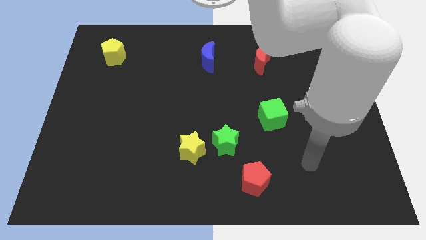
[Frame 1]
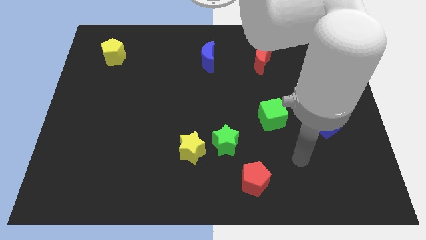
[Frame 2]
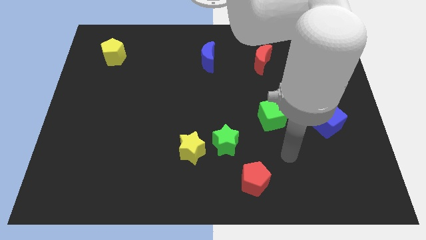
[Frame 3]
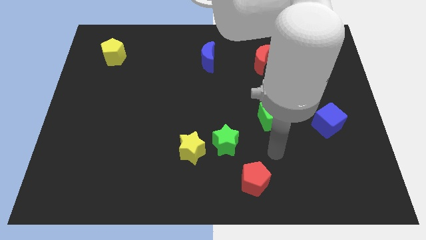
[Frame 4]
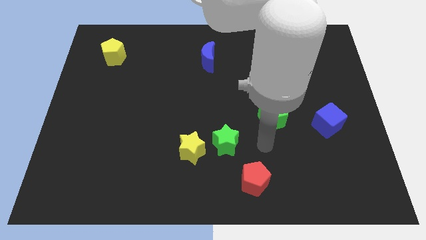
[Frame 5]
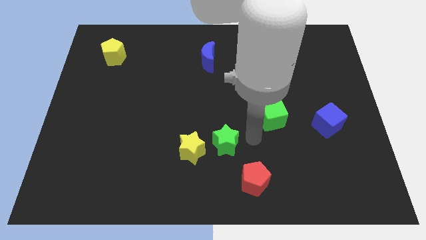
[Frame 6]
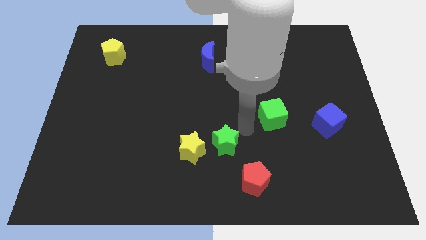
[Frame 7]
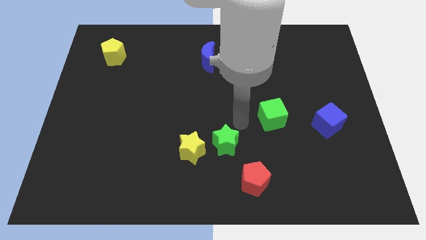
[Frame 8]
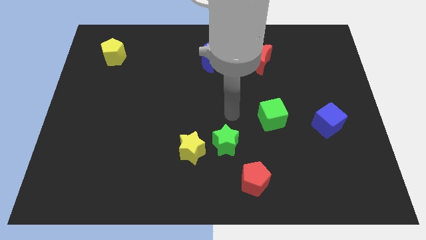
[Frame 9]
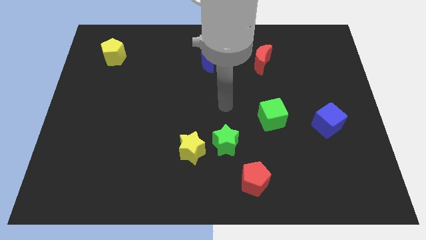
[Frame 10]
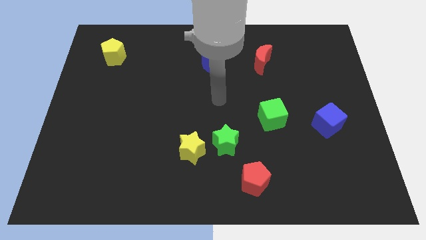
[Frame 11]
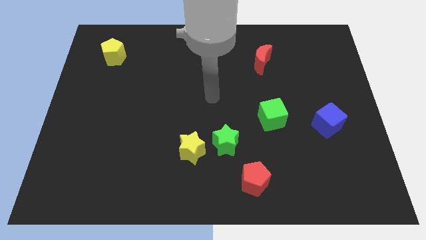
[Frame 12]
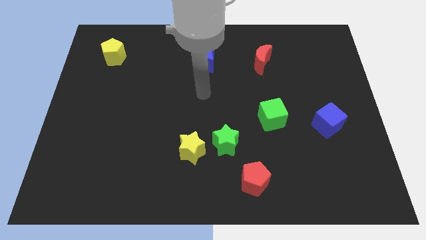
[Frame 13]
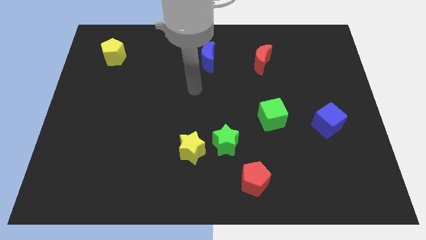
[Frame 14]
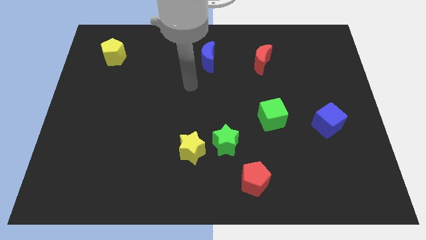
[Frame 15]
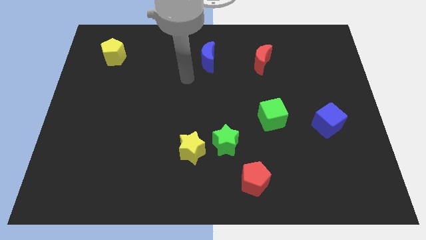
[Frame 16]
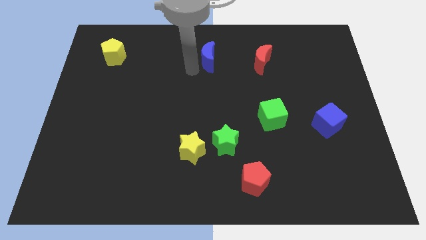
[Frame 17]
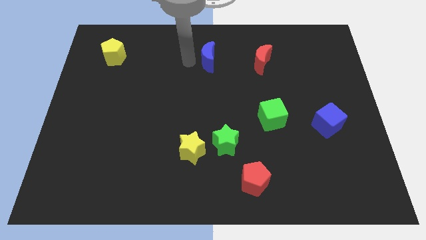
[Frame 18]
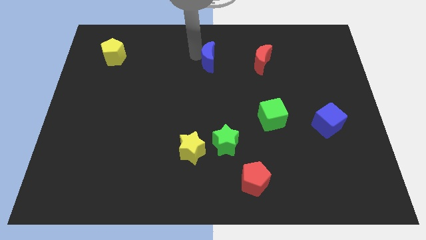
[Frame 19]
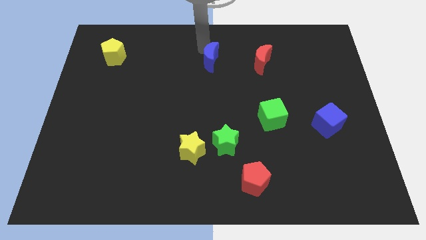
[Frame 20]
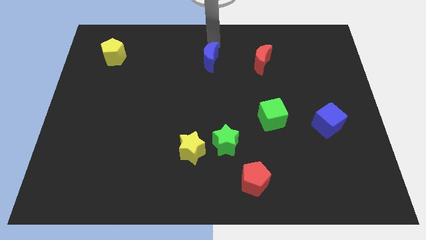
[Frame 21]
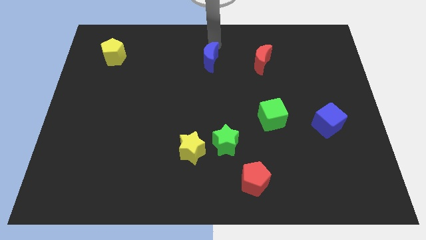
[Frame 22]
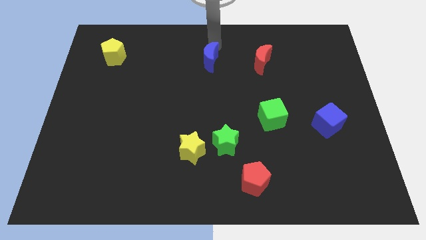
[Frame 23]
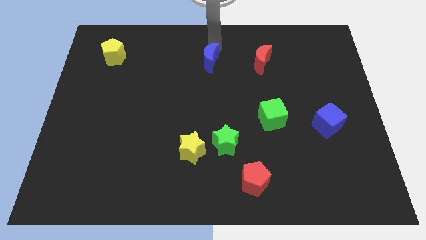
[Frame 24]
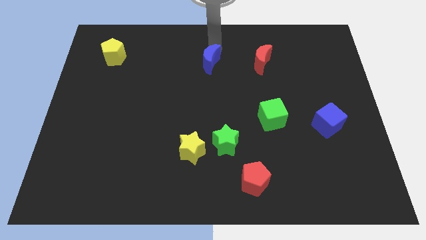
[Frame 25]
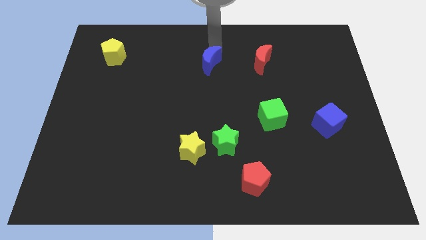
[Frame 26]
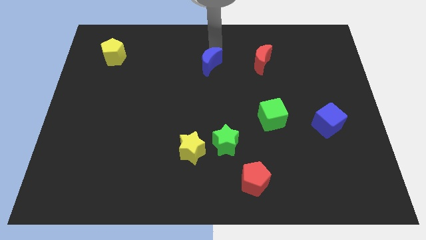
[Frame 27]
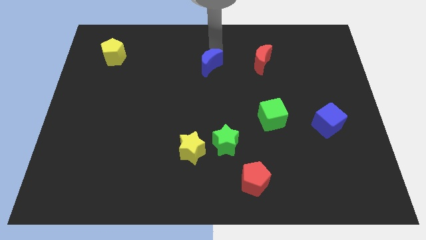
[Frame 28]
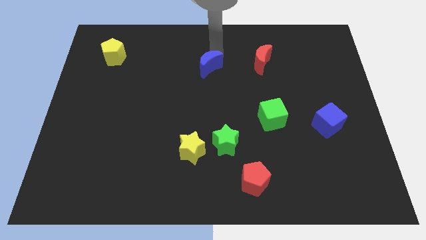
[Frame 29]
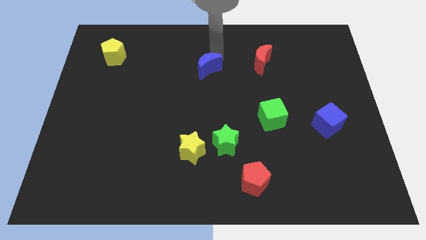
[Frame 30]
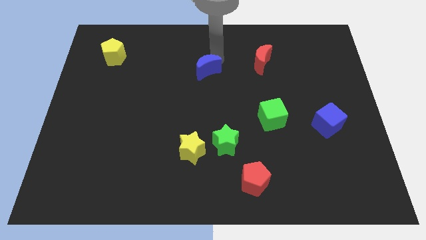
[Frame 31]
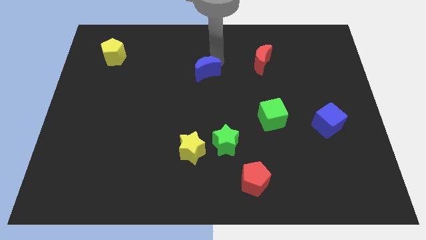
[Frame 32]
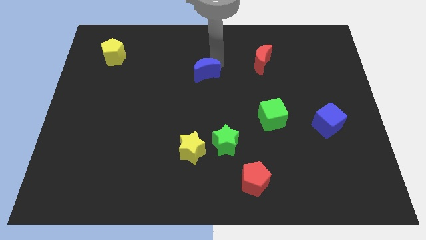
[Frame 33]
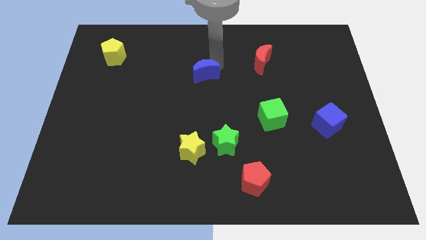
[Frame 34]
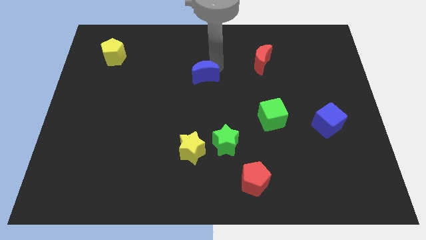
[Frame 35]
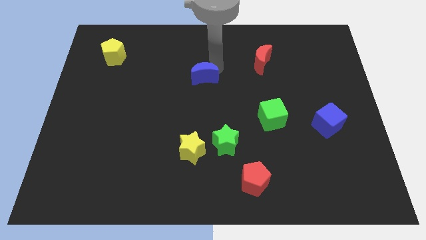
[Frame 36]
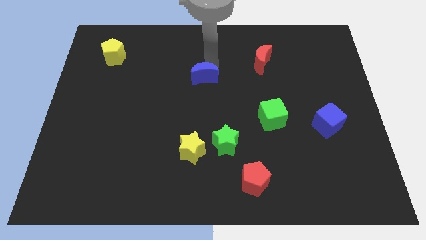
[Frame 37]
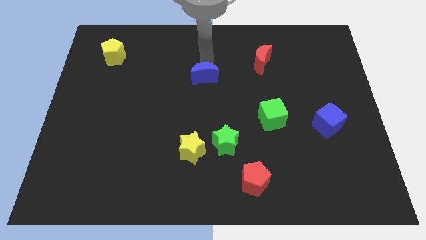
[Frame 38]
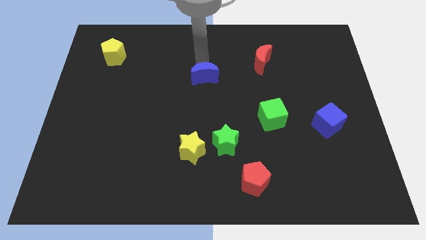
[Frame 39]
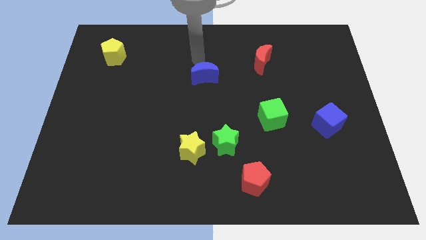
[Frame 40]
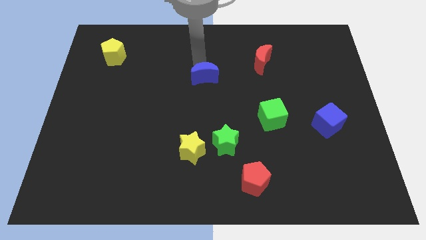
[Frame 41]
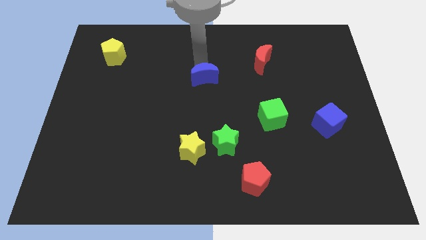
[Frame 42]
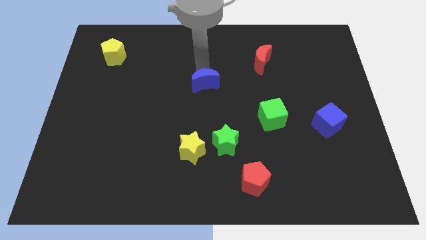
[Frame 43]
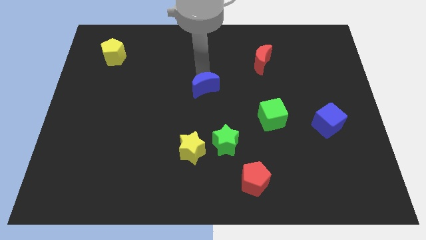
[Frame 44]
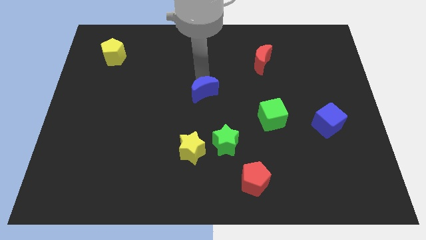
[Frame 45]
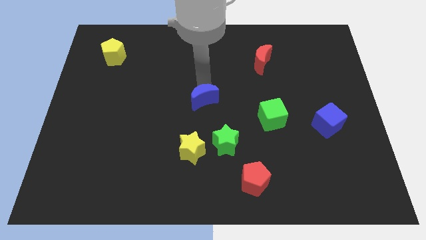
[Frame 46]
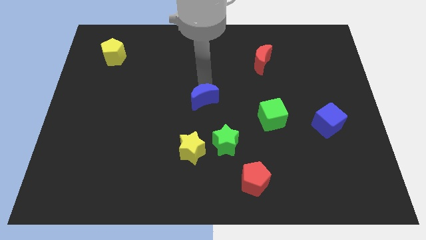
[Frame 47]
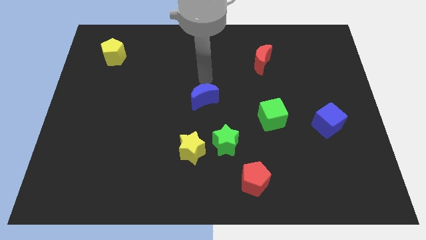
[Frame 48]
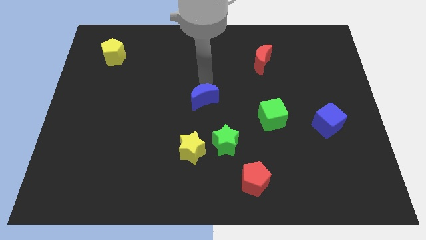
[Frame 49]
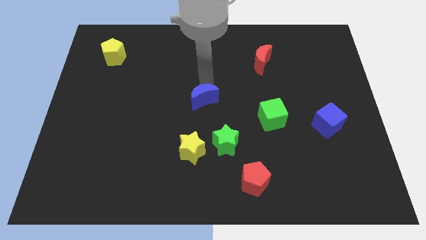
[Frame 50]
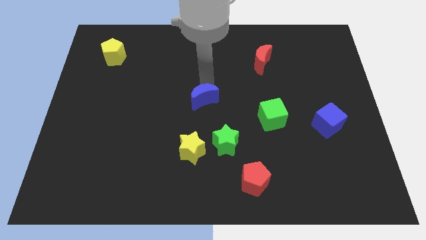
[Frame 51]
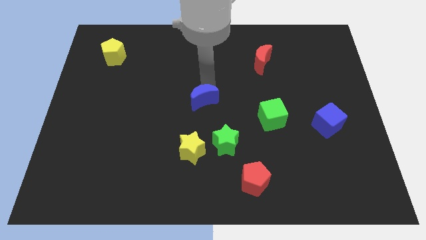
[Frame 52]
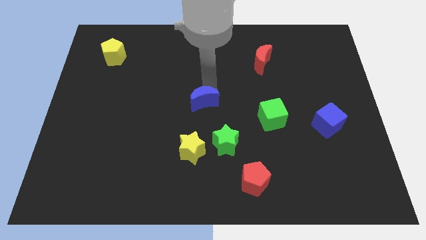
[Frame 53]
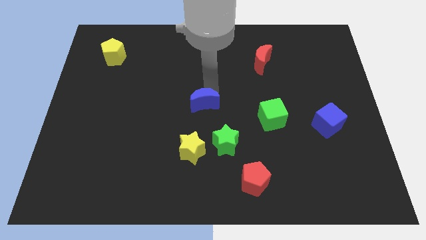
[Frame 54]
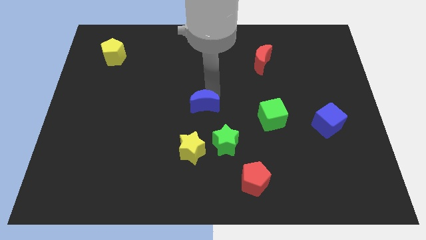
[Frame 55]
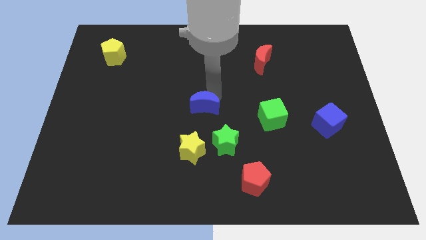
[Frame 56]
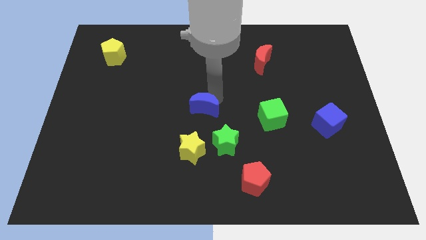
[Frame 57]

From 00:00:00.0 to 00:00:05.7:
put the blue moon diagonally up and to the left of the green star

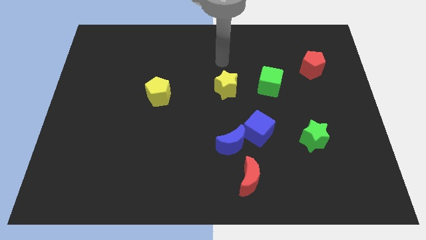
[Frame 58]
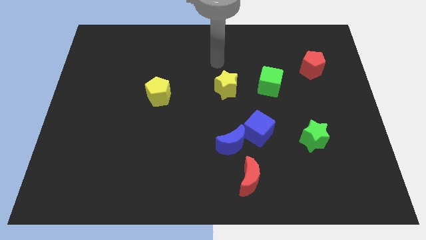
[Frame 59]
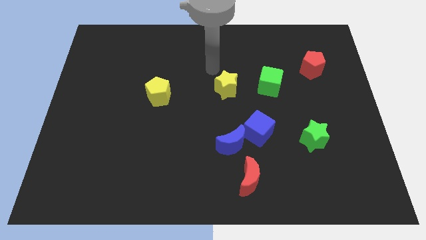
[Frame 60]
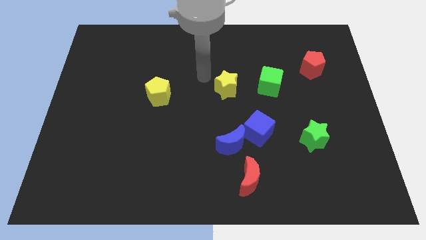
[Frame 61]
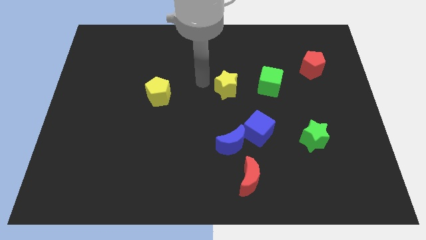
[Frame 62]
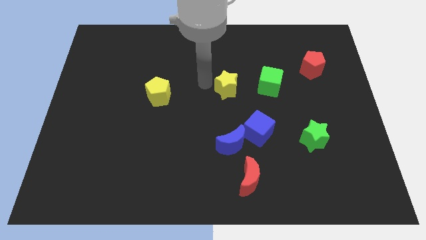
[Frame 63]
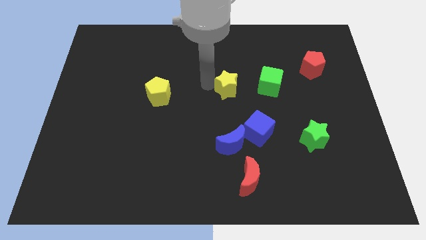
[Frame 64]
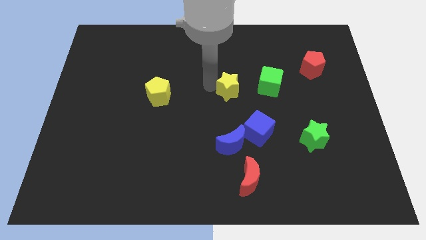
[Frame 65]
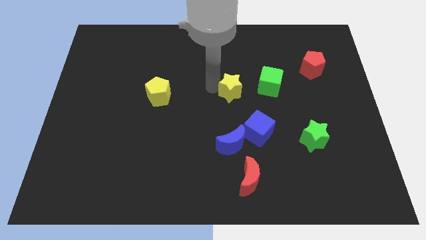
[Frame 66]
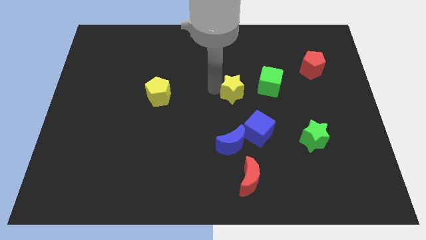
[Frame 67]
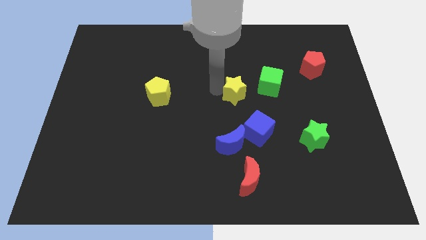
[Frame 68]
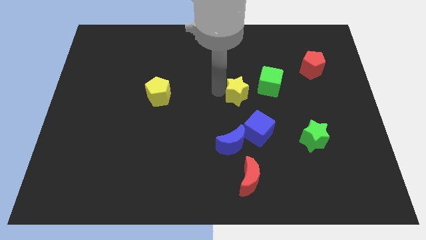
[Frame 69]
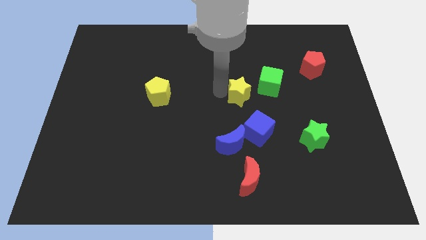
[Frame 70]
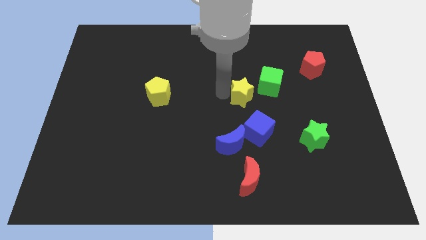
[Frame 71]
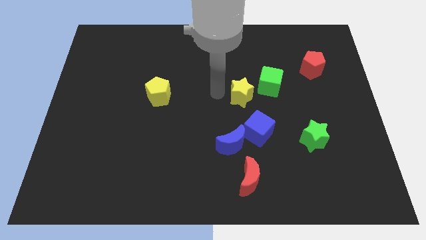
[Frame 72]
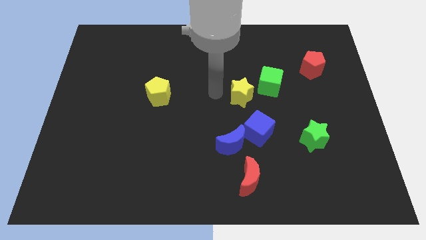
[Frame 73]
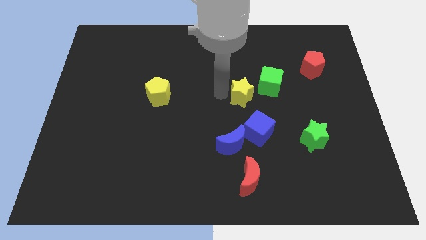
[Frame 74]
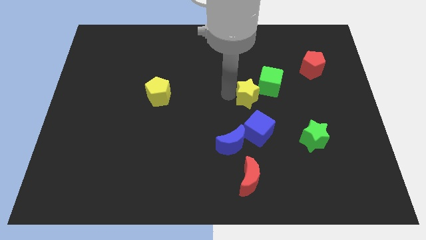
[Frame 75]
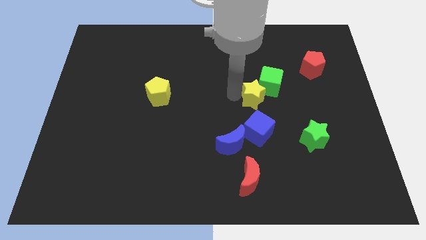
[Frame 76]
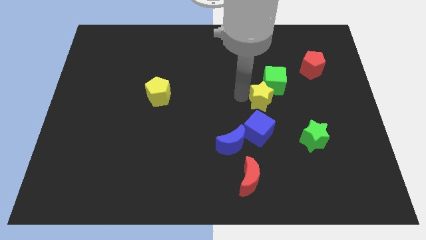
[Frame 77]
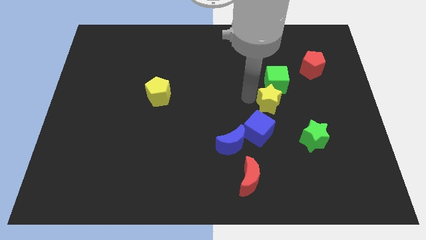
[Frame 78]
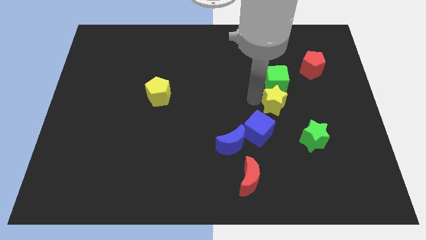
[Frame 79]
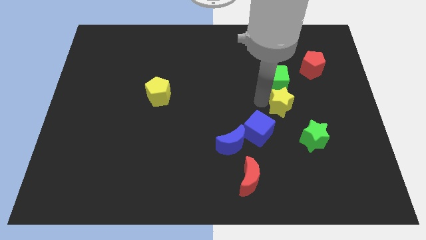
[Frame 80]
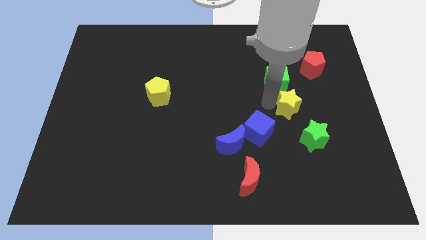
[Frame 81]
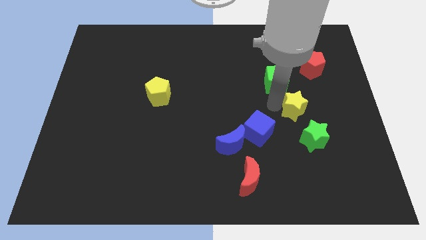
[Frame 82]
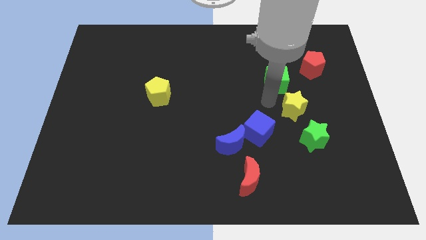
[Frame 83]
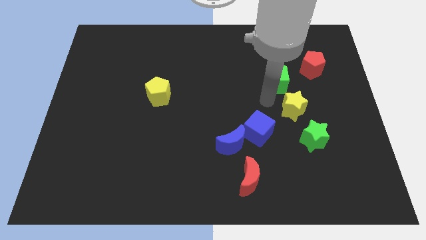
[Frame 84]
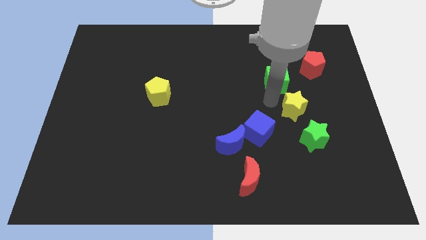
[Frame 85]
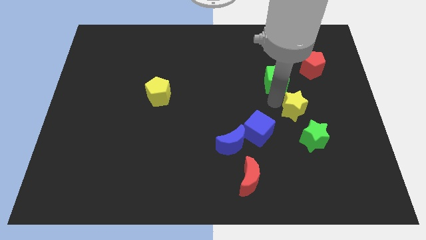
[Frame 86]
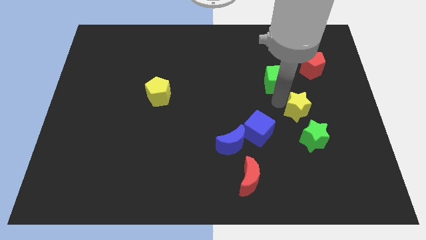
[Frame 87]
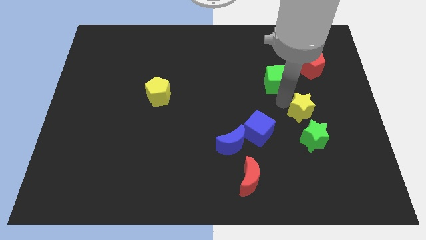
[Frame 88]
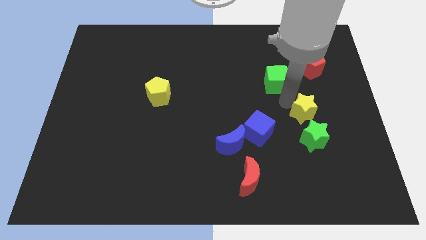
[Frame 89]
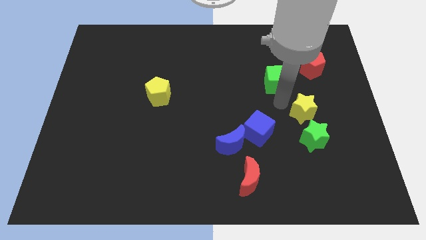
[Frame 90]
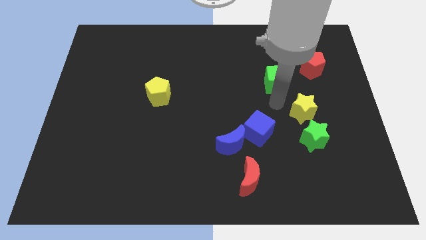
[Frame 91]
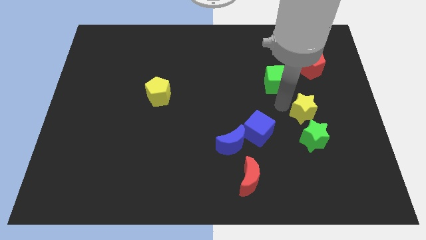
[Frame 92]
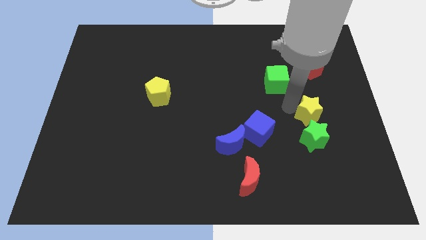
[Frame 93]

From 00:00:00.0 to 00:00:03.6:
push the yellow star to the top right of the green star
